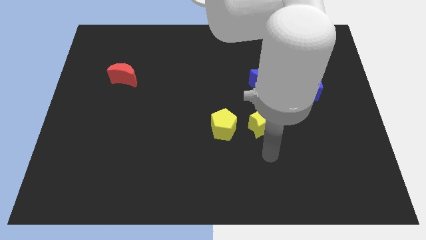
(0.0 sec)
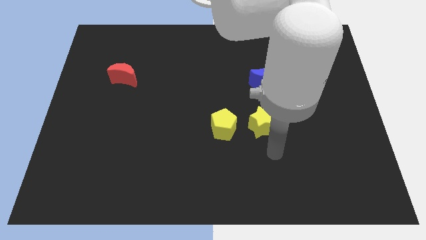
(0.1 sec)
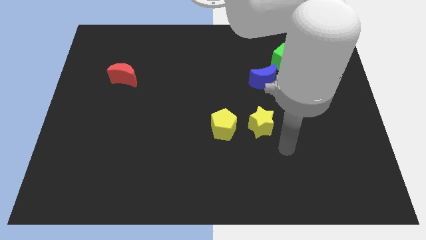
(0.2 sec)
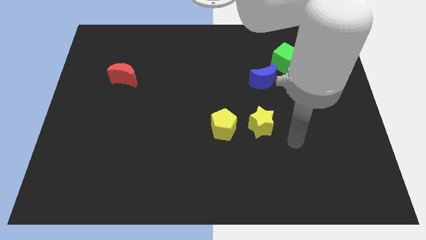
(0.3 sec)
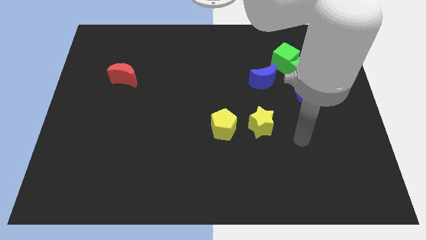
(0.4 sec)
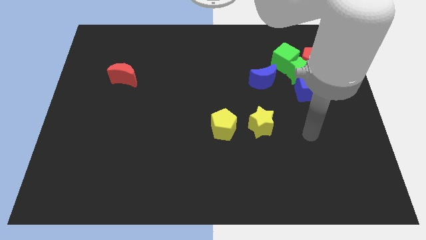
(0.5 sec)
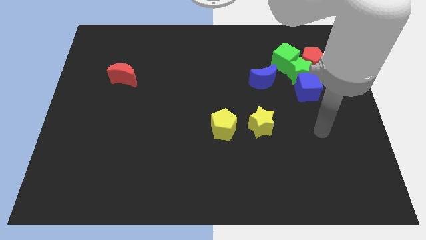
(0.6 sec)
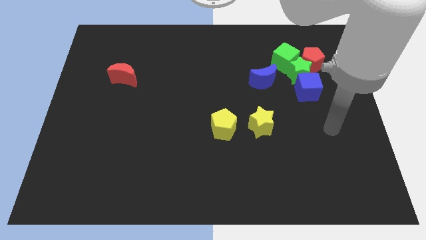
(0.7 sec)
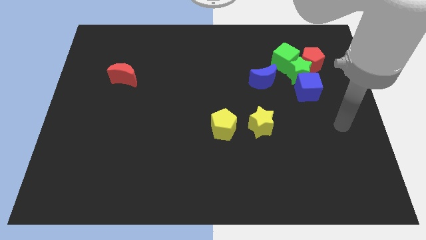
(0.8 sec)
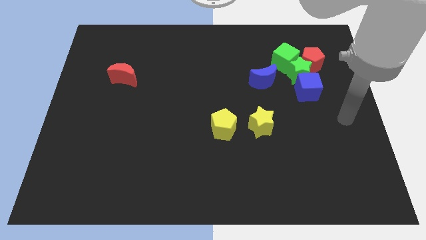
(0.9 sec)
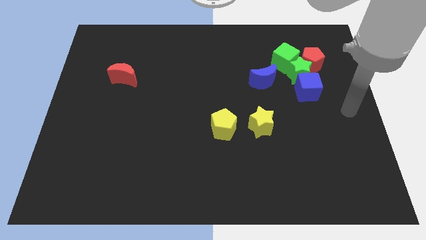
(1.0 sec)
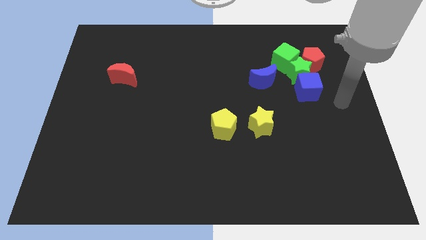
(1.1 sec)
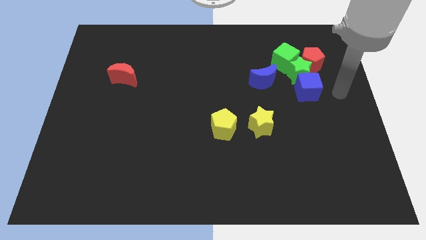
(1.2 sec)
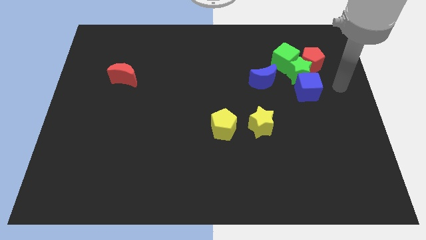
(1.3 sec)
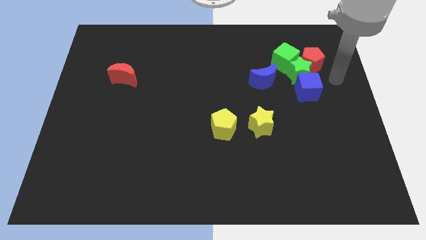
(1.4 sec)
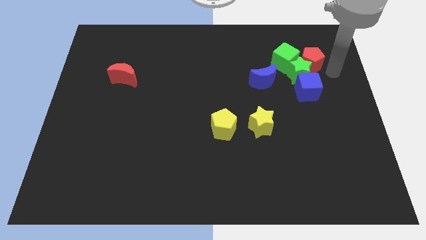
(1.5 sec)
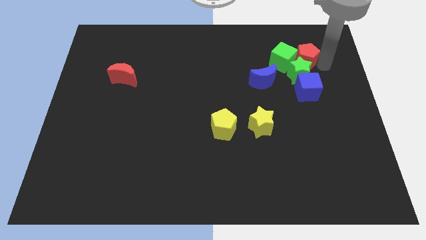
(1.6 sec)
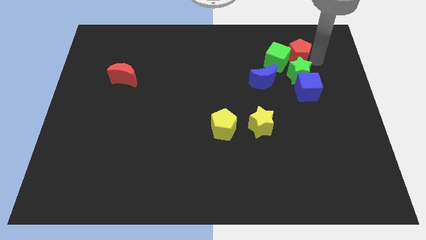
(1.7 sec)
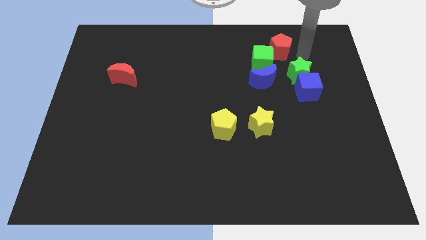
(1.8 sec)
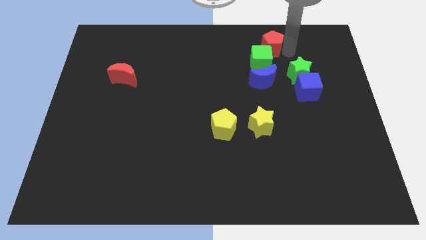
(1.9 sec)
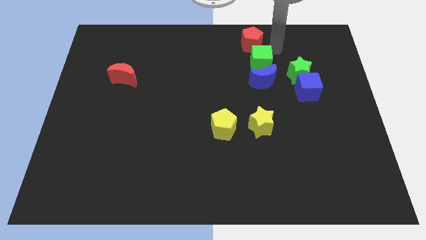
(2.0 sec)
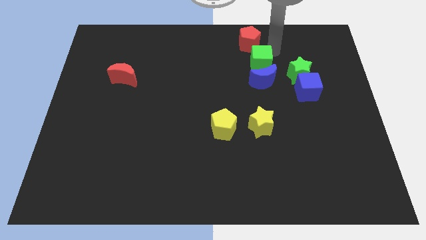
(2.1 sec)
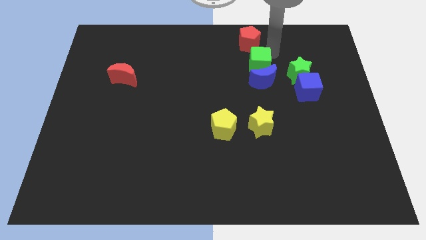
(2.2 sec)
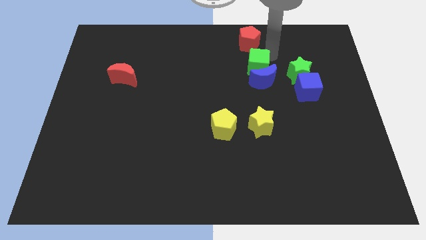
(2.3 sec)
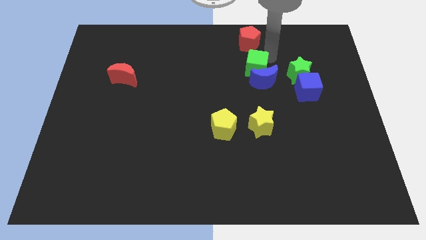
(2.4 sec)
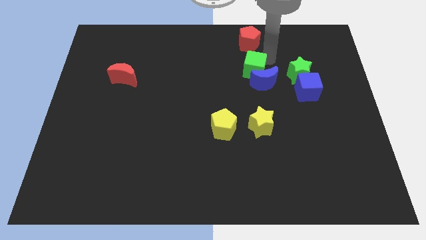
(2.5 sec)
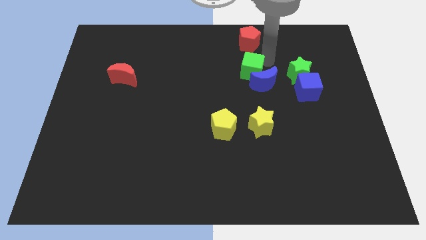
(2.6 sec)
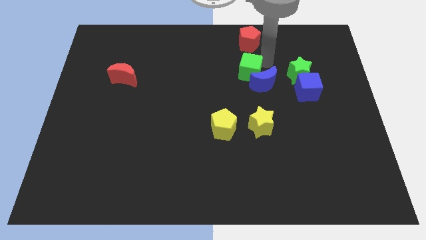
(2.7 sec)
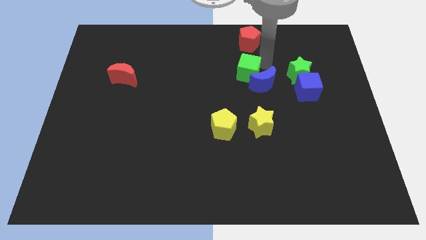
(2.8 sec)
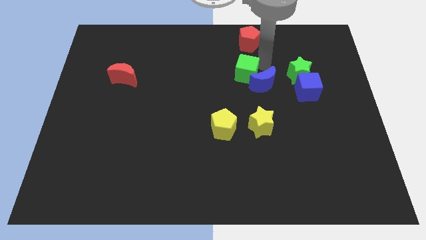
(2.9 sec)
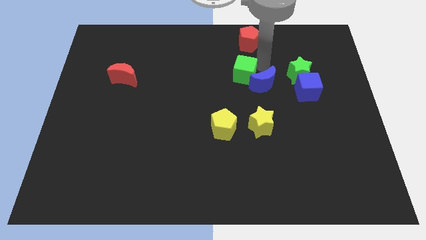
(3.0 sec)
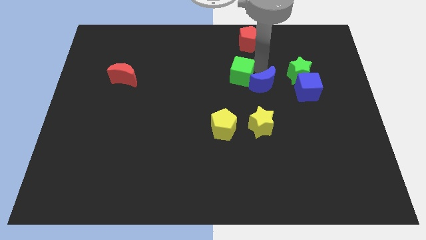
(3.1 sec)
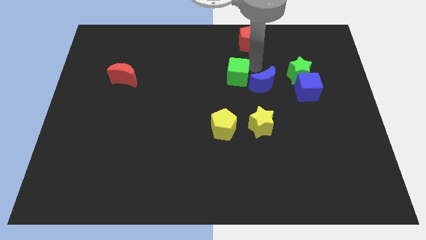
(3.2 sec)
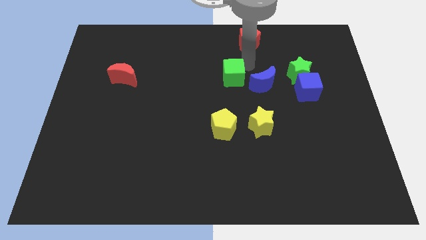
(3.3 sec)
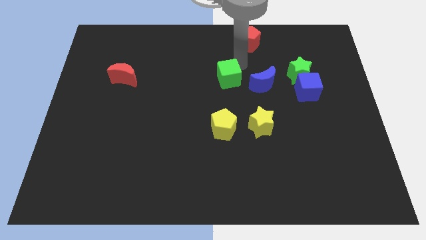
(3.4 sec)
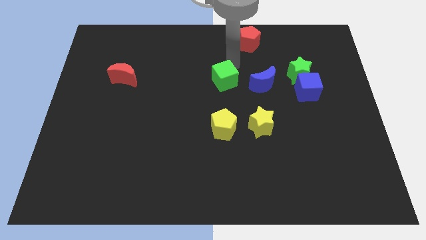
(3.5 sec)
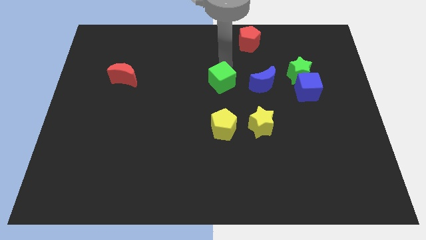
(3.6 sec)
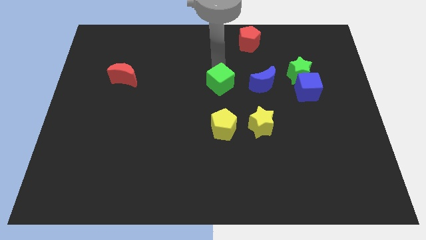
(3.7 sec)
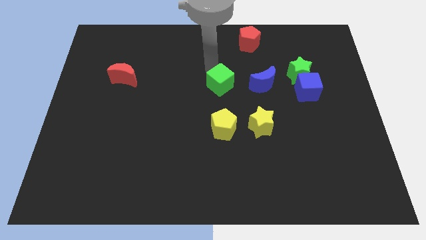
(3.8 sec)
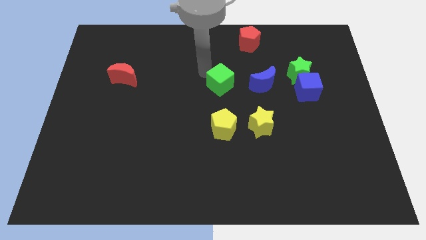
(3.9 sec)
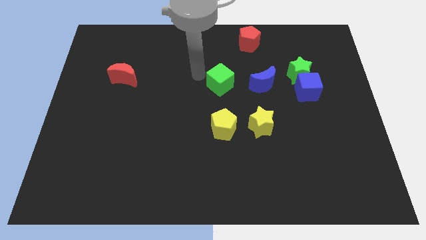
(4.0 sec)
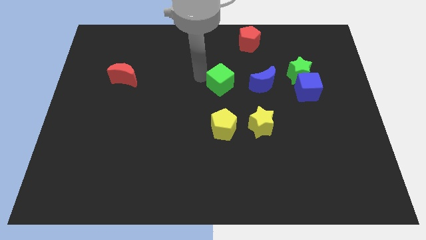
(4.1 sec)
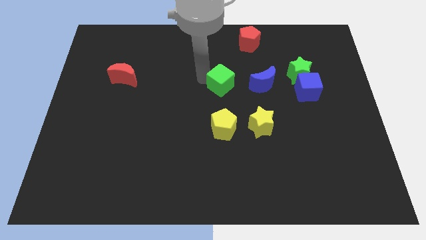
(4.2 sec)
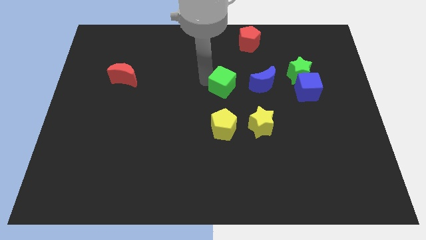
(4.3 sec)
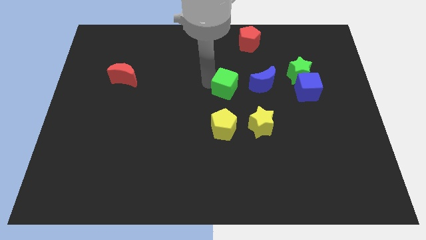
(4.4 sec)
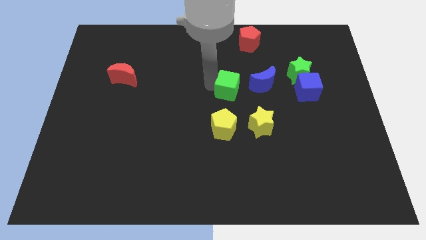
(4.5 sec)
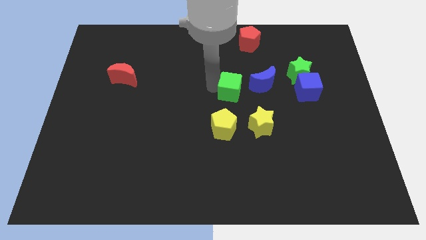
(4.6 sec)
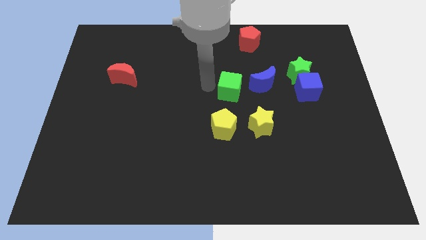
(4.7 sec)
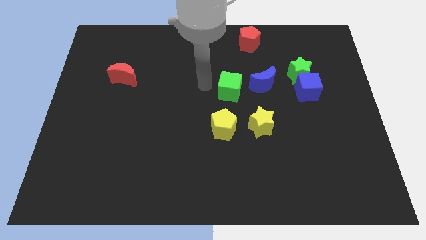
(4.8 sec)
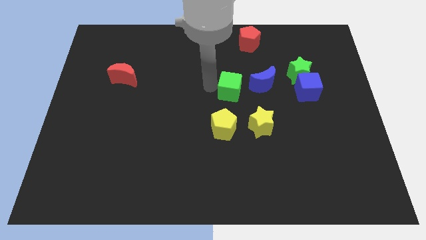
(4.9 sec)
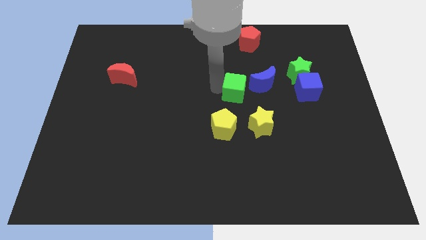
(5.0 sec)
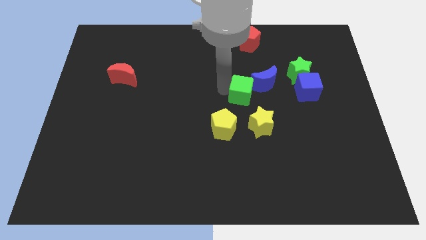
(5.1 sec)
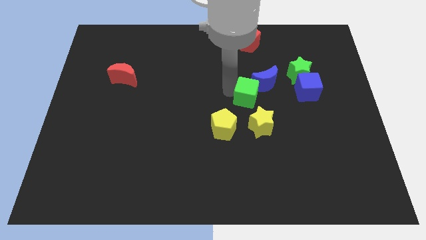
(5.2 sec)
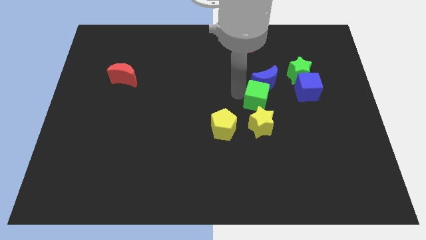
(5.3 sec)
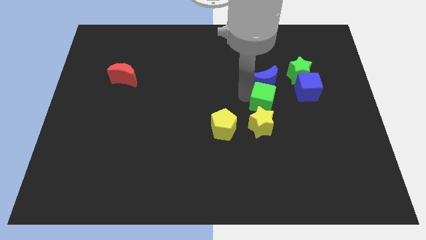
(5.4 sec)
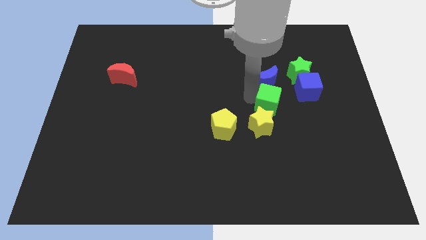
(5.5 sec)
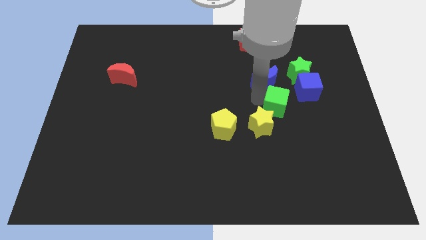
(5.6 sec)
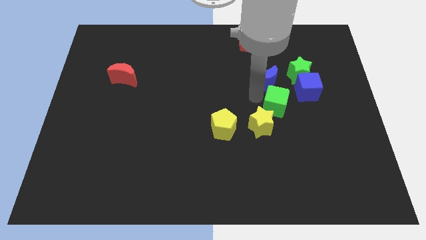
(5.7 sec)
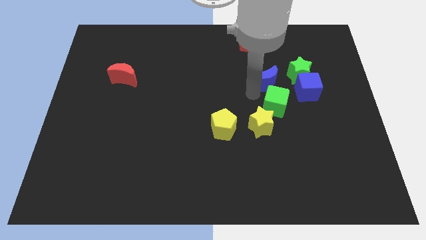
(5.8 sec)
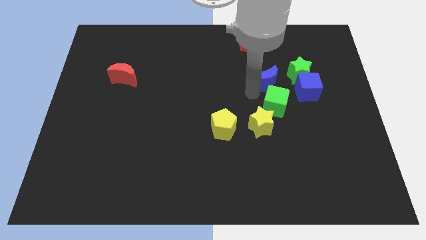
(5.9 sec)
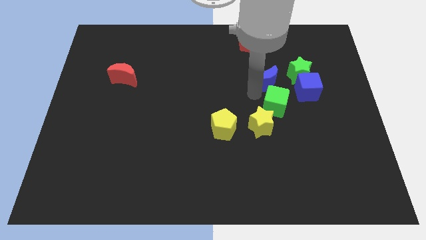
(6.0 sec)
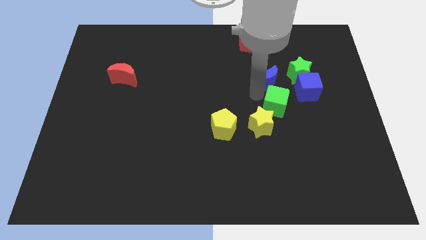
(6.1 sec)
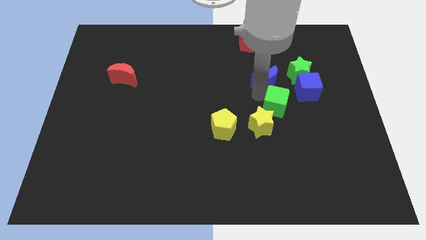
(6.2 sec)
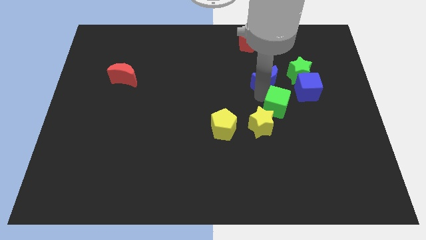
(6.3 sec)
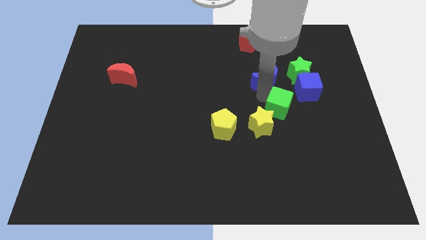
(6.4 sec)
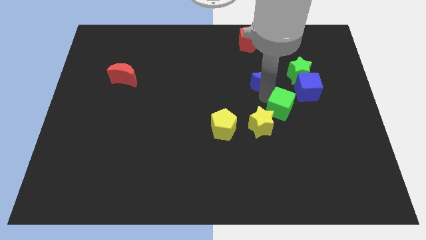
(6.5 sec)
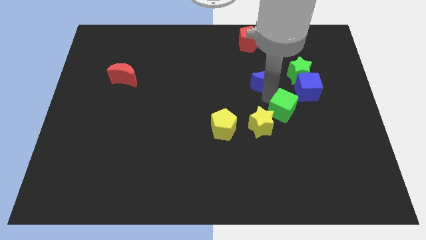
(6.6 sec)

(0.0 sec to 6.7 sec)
push the green cube right of the yellow star

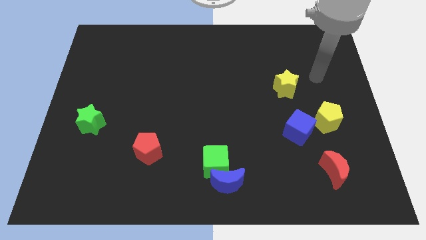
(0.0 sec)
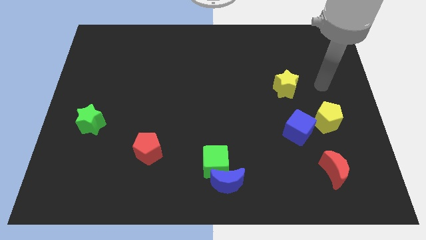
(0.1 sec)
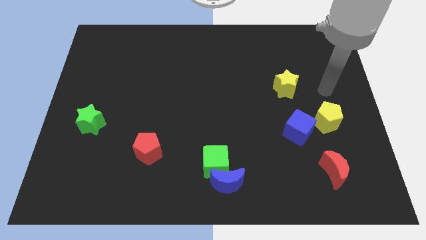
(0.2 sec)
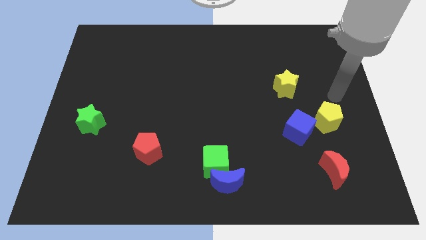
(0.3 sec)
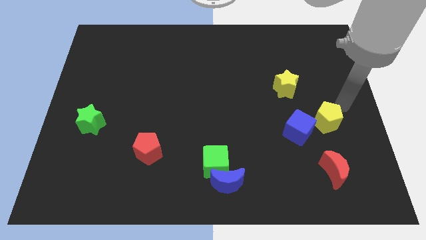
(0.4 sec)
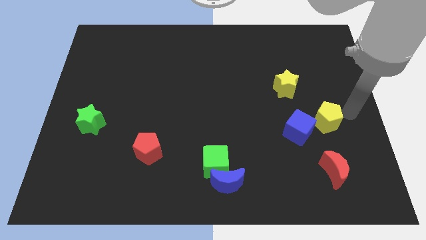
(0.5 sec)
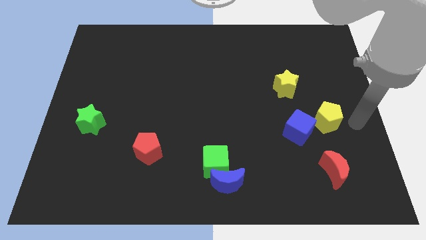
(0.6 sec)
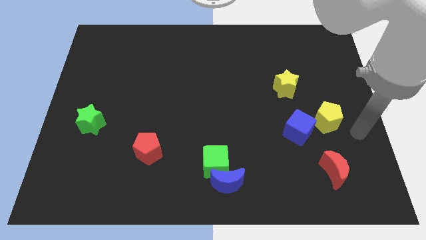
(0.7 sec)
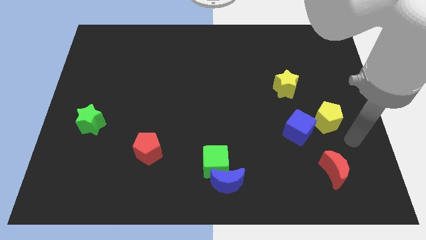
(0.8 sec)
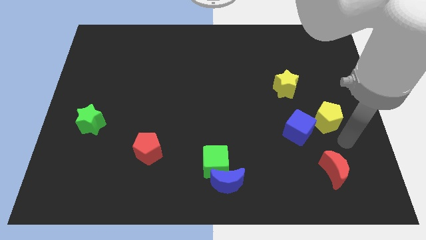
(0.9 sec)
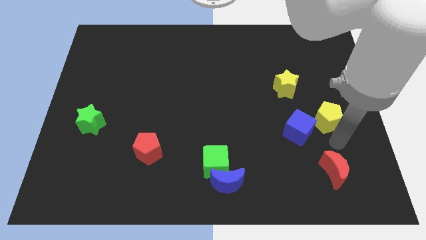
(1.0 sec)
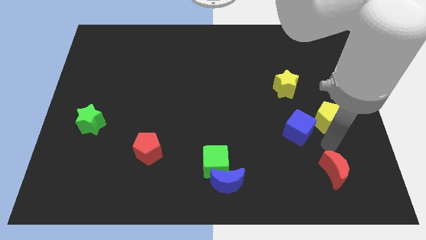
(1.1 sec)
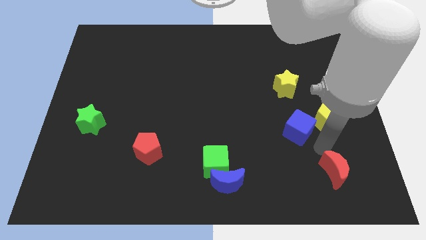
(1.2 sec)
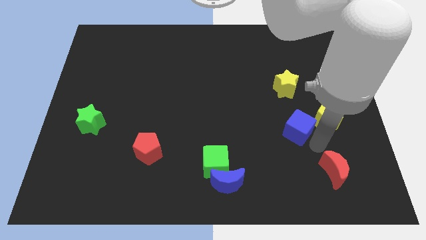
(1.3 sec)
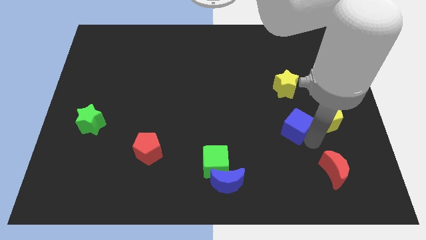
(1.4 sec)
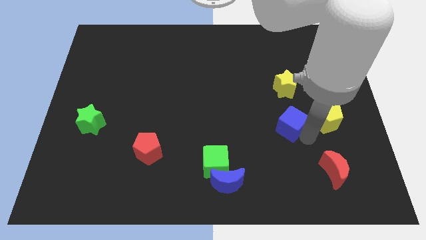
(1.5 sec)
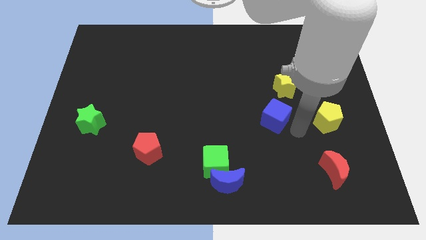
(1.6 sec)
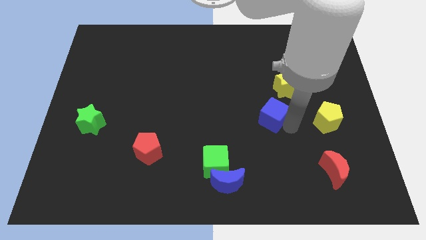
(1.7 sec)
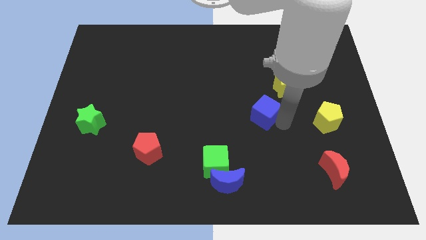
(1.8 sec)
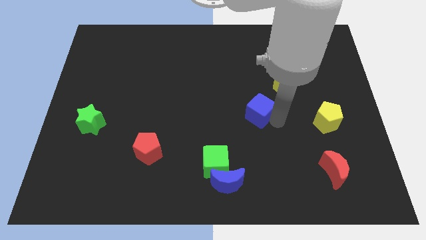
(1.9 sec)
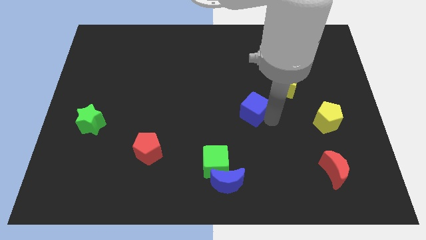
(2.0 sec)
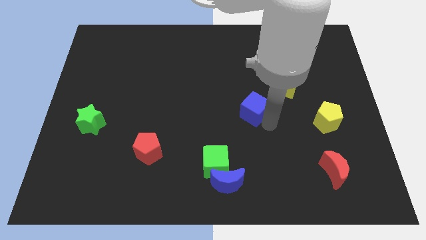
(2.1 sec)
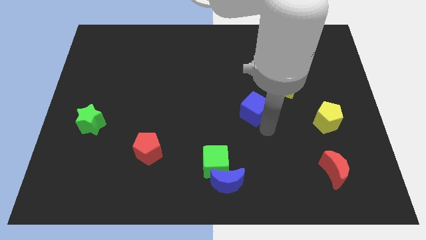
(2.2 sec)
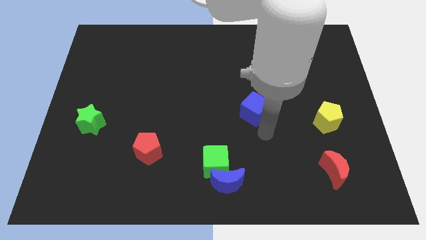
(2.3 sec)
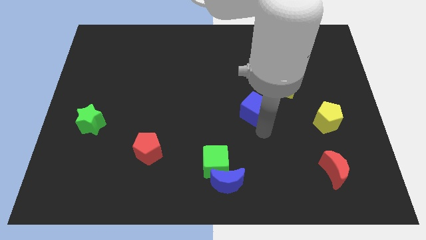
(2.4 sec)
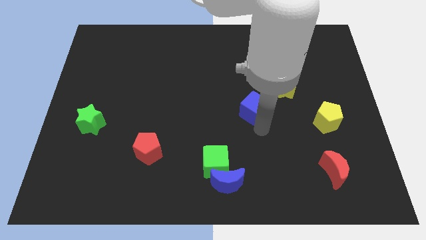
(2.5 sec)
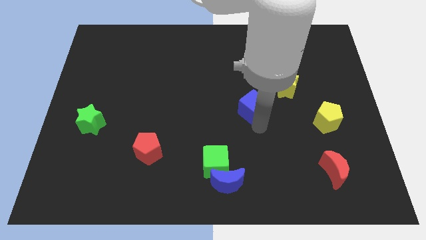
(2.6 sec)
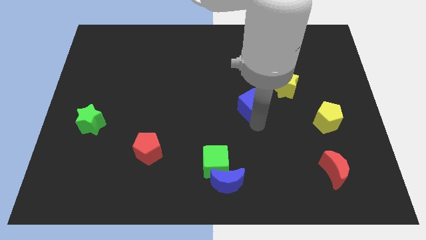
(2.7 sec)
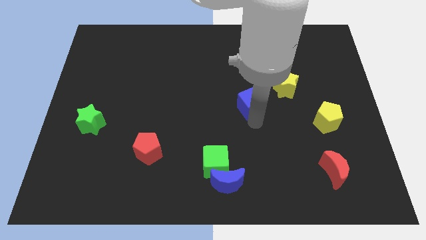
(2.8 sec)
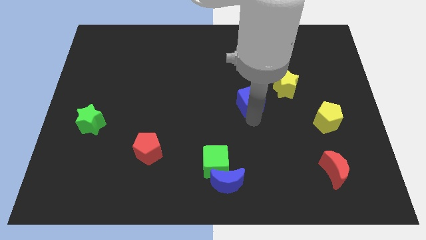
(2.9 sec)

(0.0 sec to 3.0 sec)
move the blue cube to the left of the yellow star
